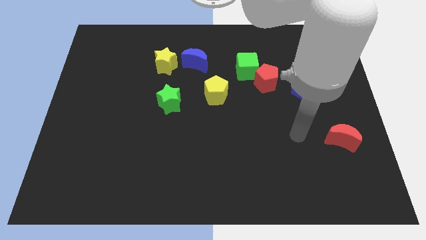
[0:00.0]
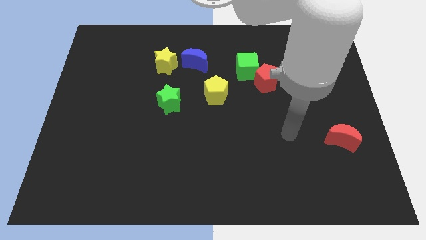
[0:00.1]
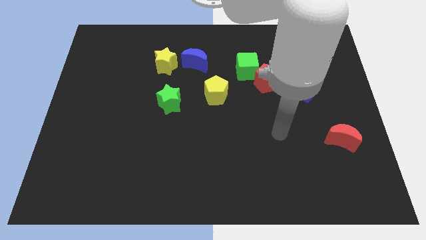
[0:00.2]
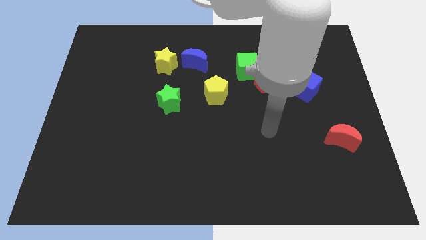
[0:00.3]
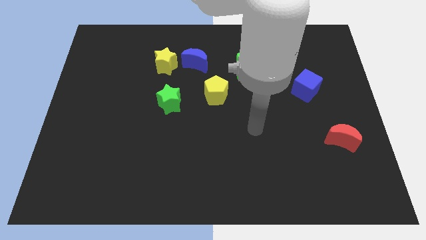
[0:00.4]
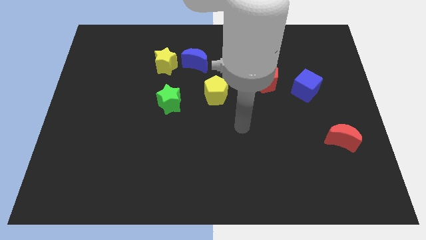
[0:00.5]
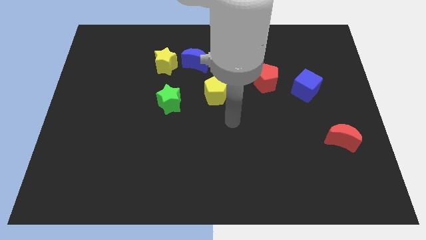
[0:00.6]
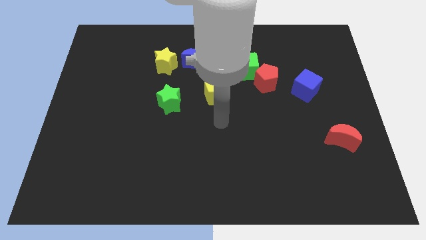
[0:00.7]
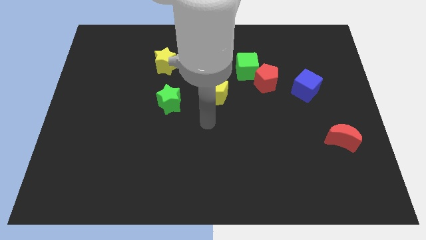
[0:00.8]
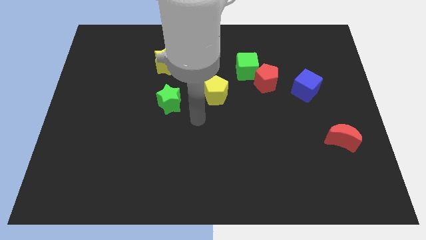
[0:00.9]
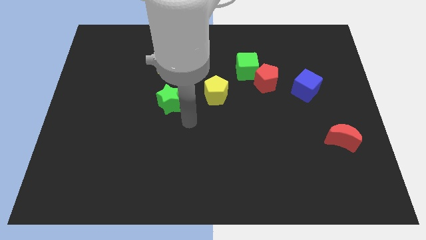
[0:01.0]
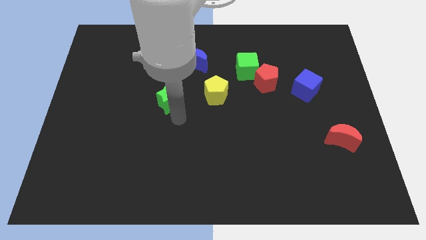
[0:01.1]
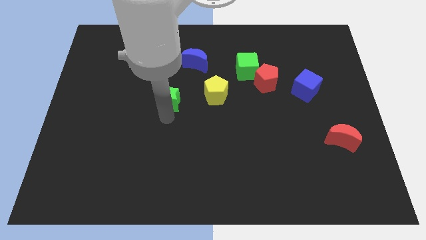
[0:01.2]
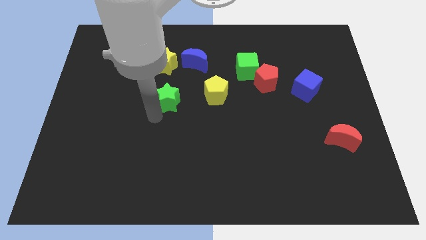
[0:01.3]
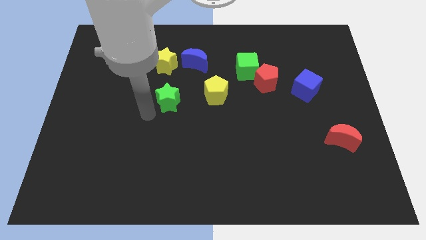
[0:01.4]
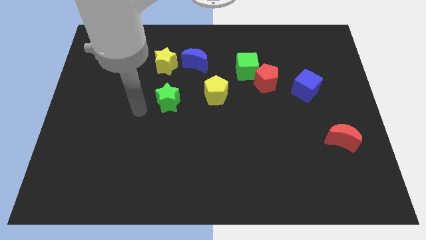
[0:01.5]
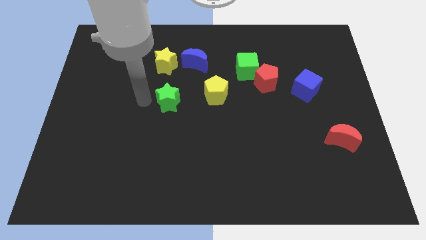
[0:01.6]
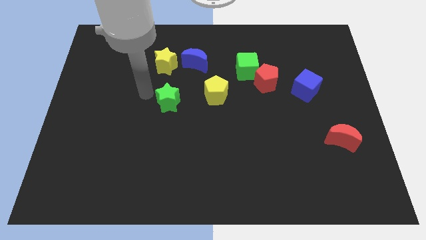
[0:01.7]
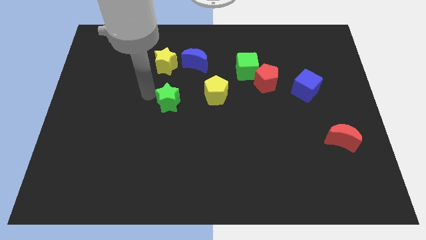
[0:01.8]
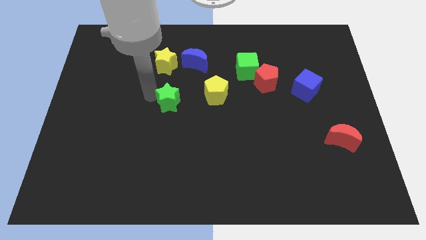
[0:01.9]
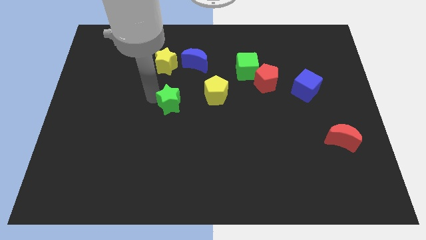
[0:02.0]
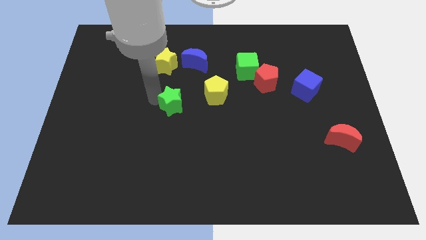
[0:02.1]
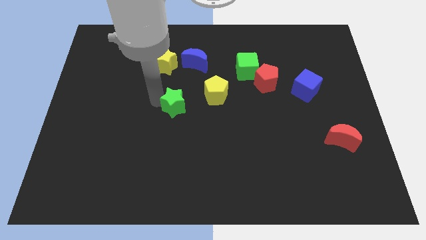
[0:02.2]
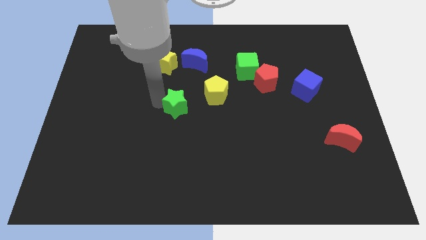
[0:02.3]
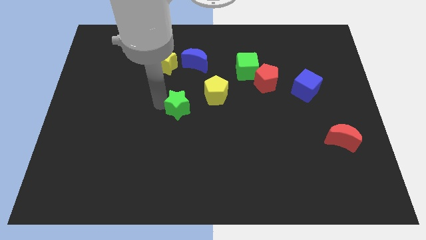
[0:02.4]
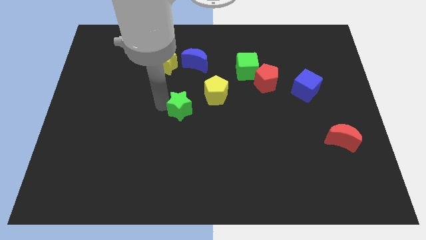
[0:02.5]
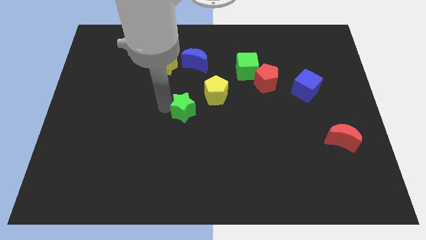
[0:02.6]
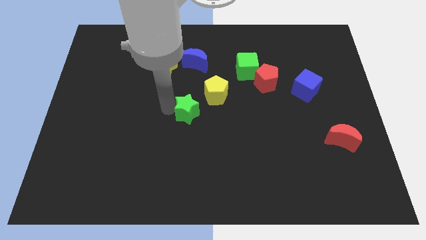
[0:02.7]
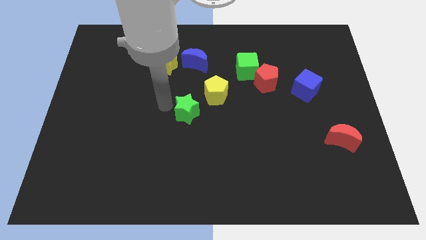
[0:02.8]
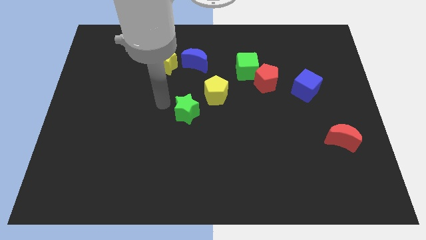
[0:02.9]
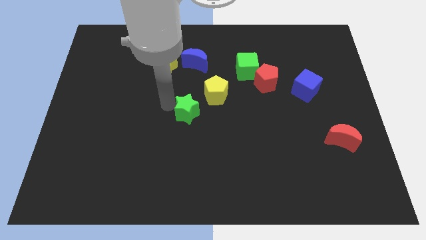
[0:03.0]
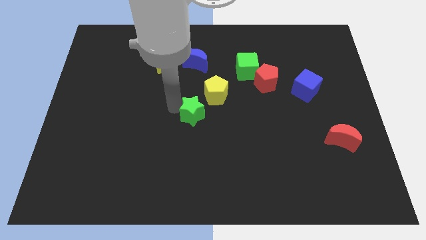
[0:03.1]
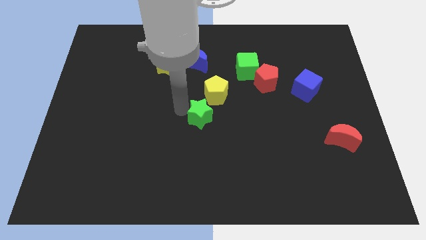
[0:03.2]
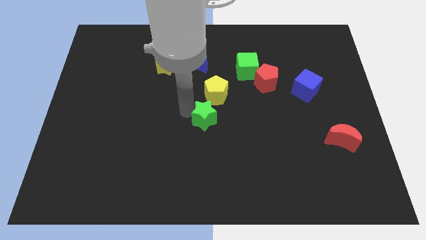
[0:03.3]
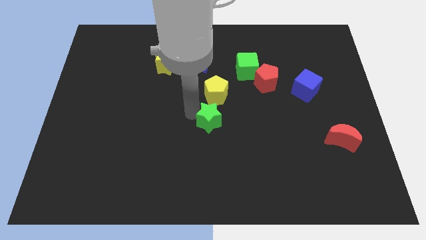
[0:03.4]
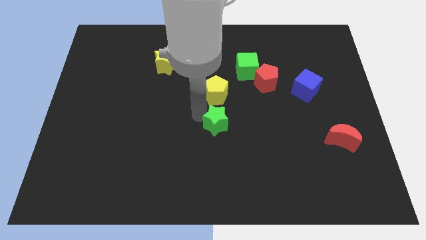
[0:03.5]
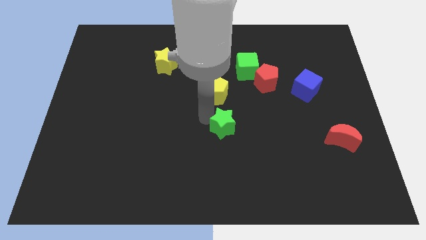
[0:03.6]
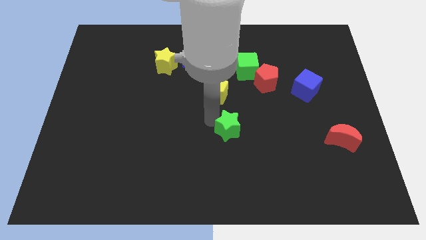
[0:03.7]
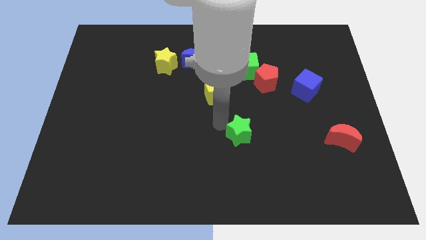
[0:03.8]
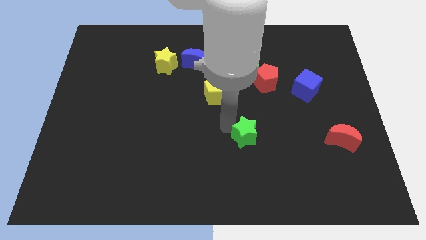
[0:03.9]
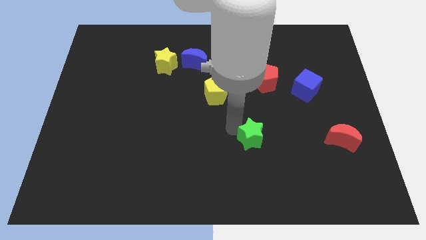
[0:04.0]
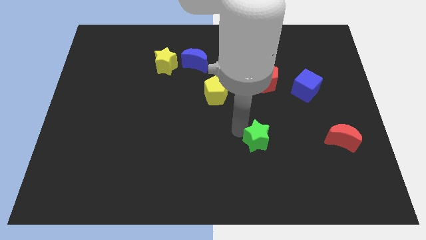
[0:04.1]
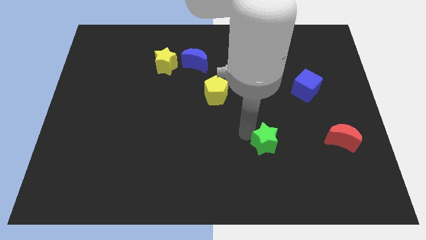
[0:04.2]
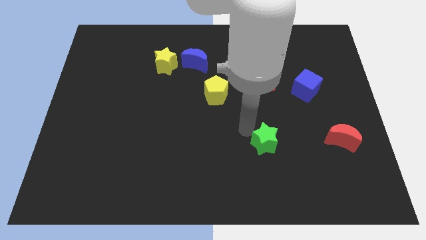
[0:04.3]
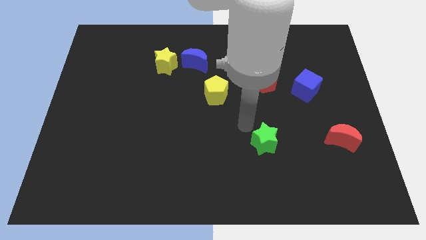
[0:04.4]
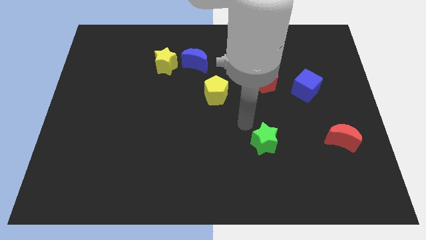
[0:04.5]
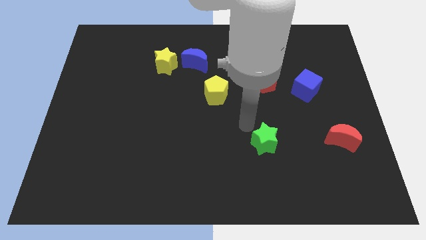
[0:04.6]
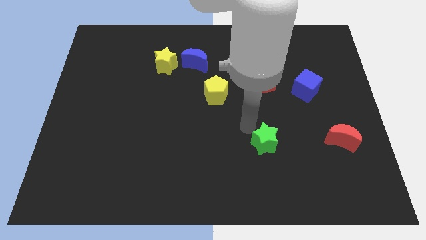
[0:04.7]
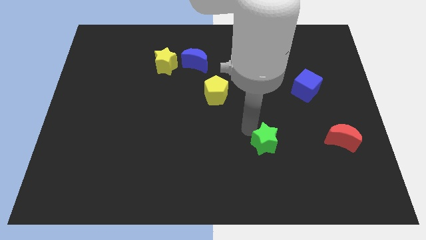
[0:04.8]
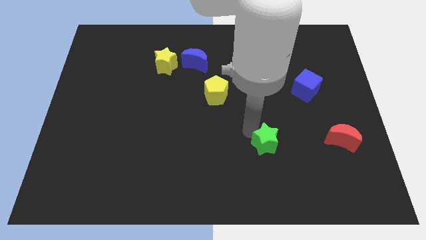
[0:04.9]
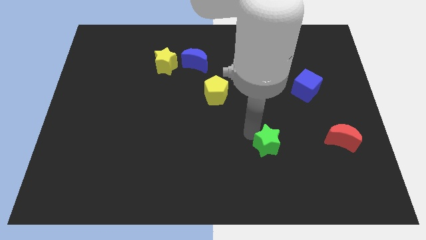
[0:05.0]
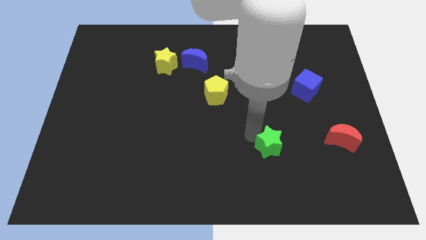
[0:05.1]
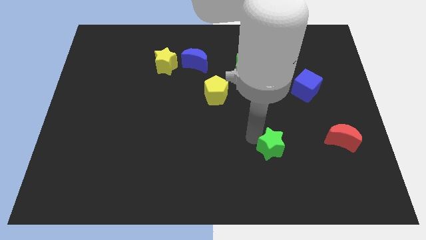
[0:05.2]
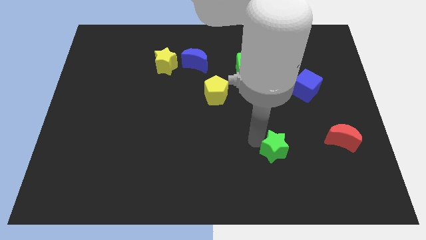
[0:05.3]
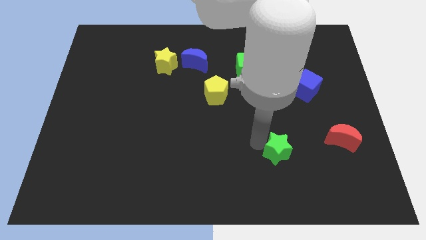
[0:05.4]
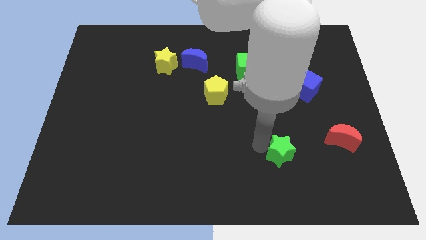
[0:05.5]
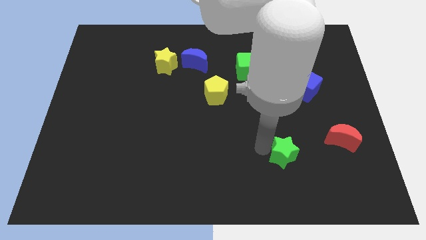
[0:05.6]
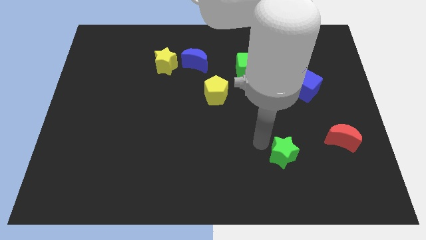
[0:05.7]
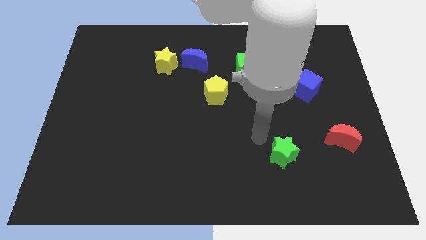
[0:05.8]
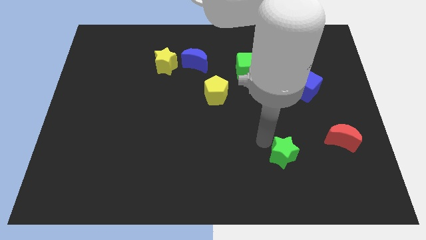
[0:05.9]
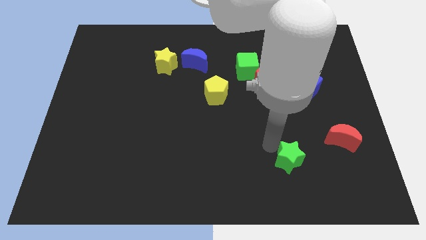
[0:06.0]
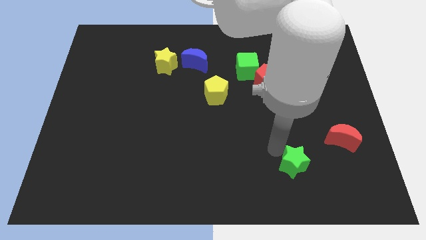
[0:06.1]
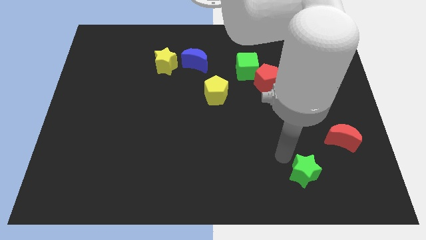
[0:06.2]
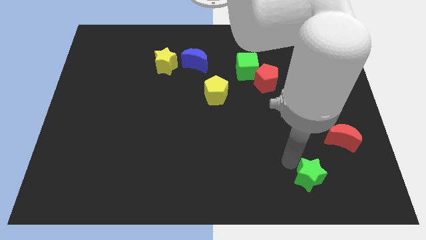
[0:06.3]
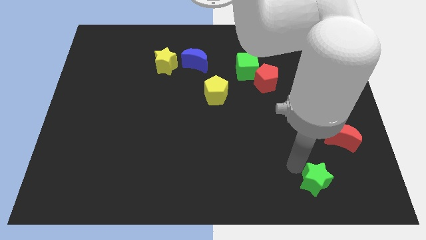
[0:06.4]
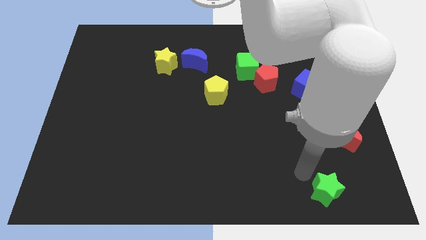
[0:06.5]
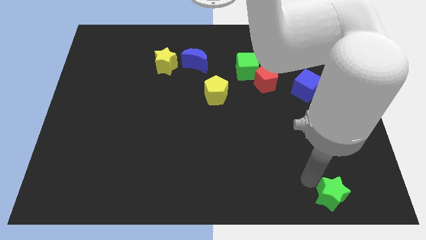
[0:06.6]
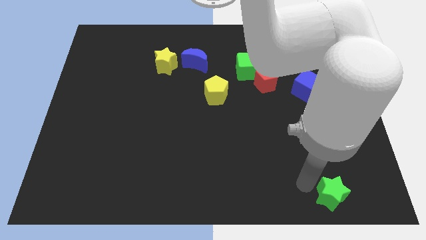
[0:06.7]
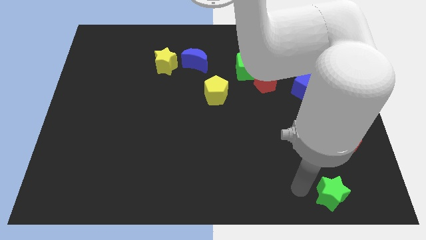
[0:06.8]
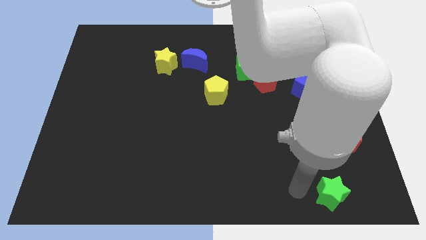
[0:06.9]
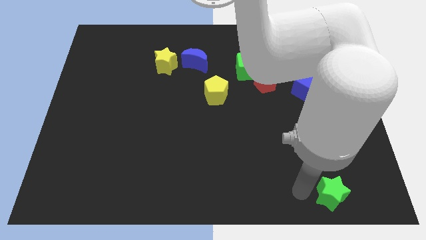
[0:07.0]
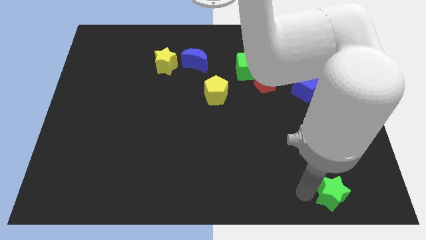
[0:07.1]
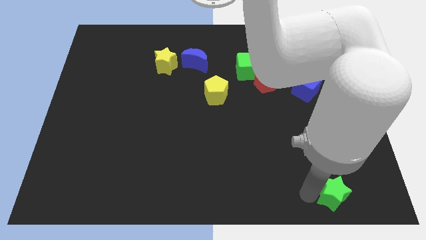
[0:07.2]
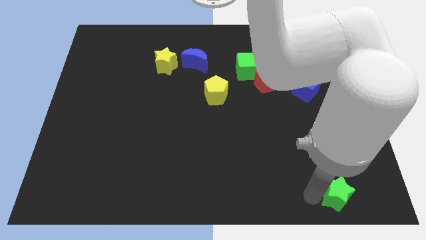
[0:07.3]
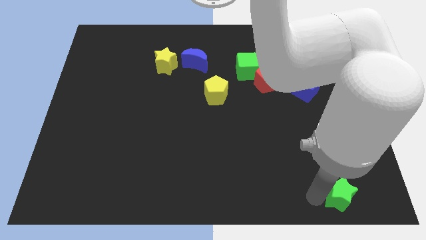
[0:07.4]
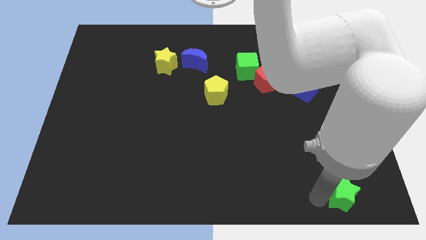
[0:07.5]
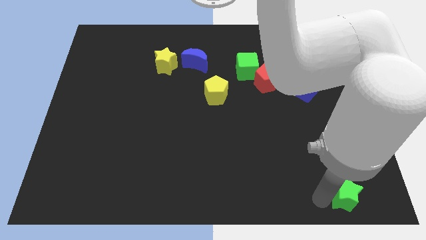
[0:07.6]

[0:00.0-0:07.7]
slide the green star to the bottom right corner
